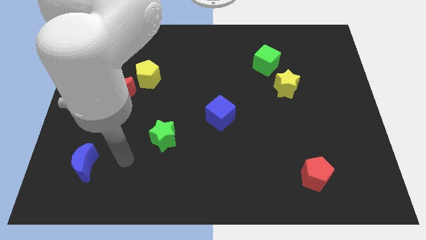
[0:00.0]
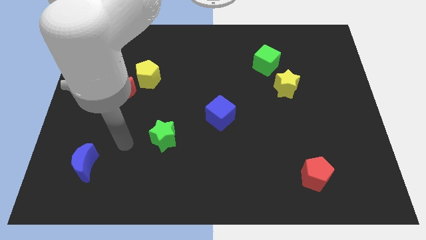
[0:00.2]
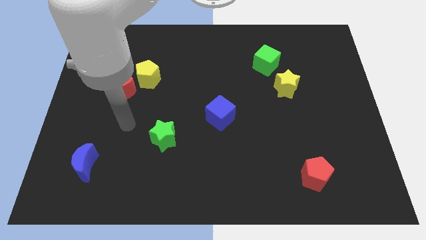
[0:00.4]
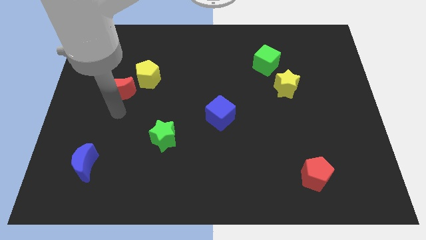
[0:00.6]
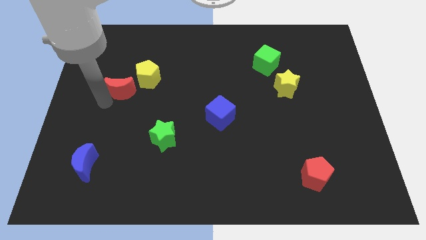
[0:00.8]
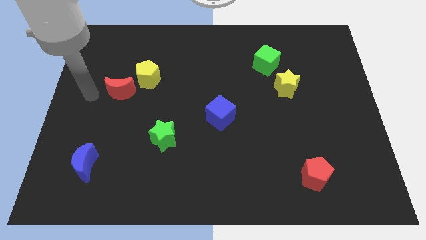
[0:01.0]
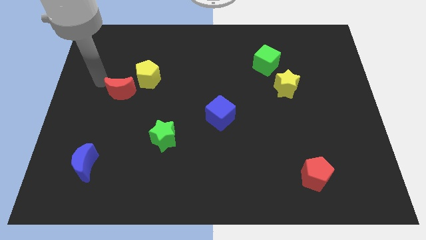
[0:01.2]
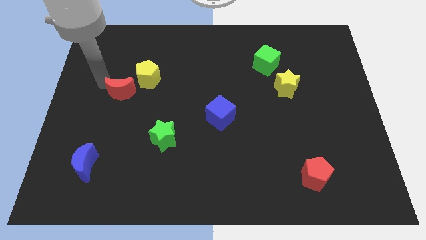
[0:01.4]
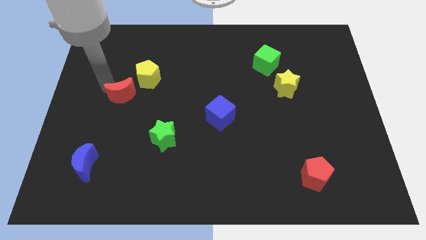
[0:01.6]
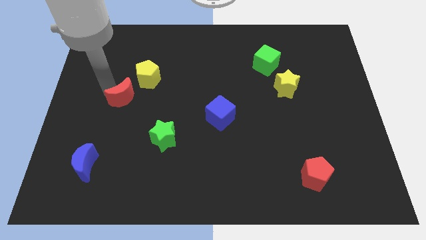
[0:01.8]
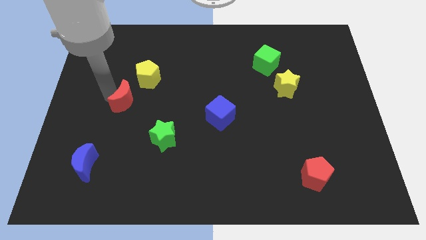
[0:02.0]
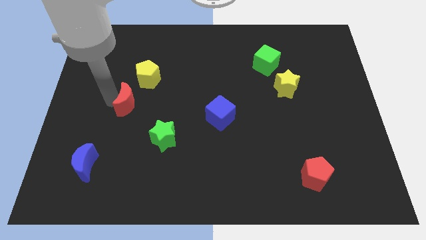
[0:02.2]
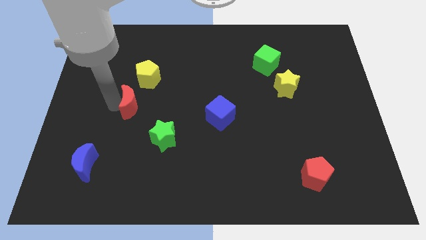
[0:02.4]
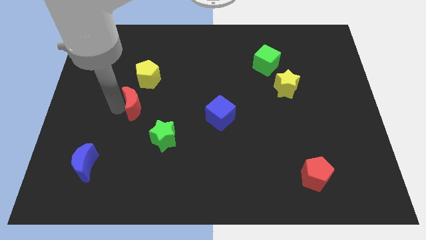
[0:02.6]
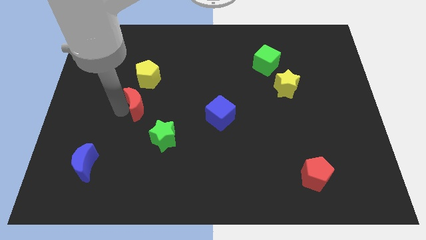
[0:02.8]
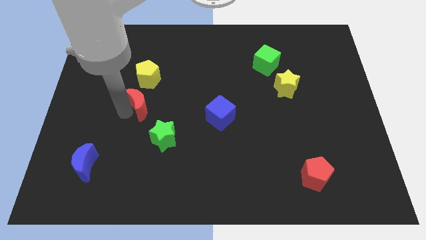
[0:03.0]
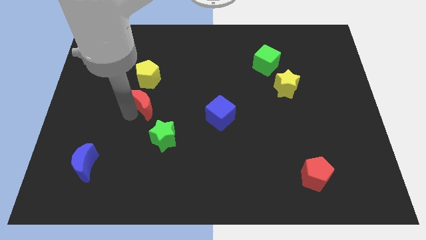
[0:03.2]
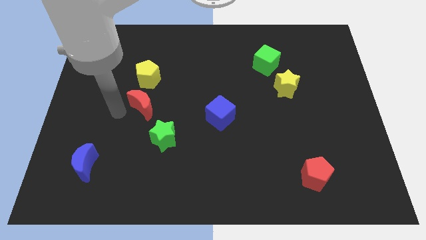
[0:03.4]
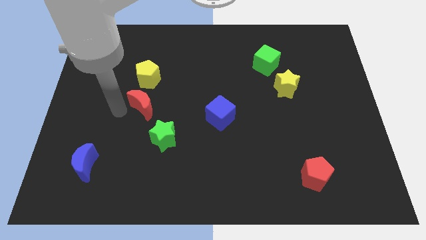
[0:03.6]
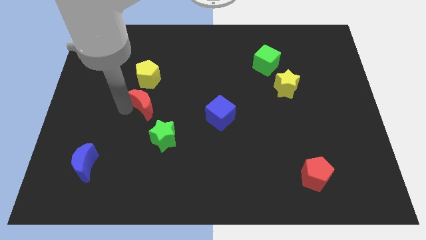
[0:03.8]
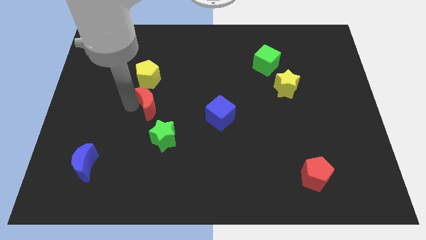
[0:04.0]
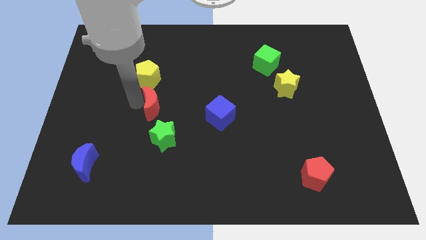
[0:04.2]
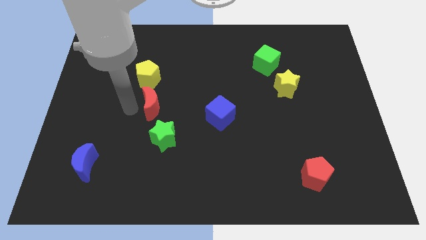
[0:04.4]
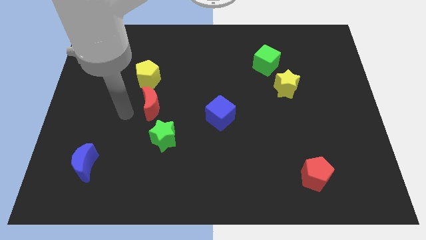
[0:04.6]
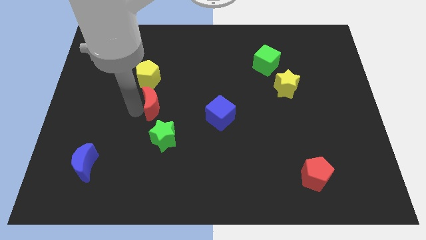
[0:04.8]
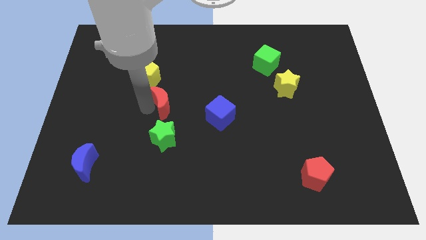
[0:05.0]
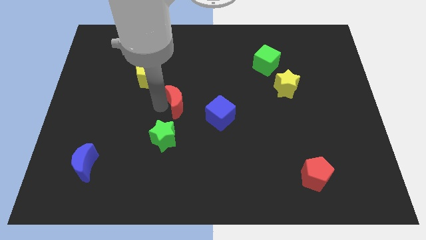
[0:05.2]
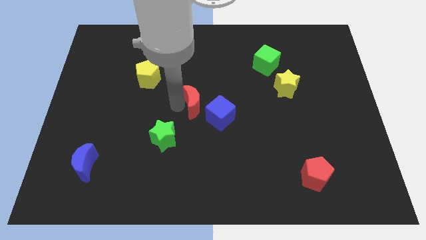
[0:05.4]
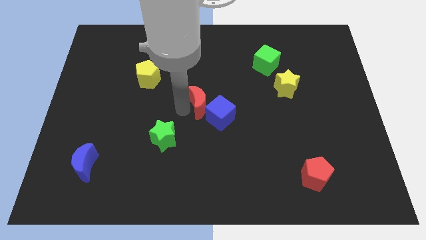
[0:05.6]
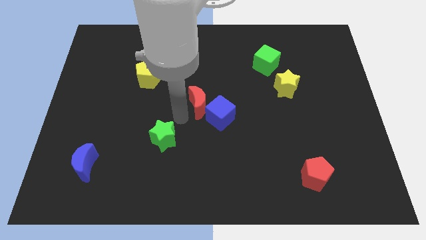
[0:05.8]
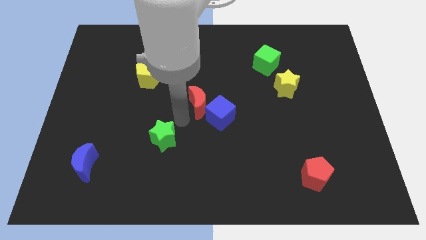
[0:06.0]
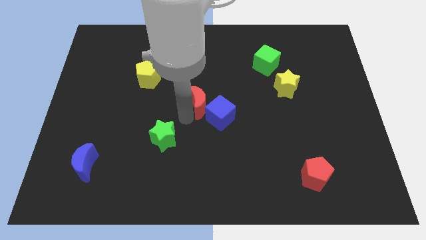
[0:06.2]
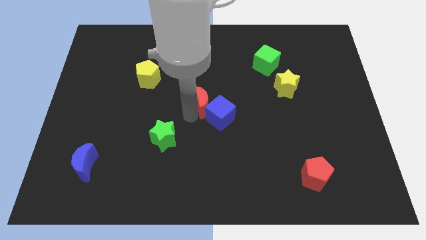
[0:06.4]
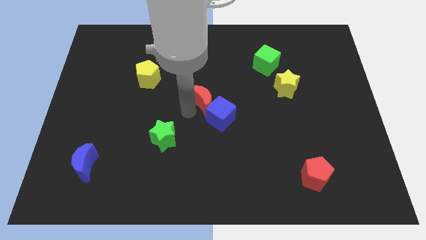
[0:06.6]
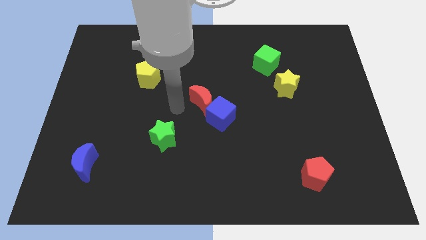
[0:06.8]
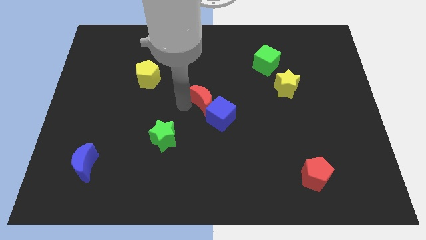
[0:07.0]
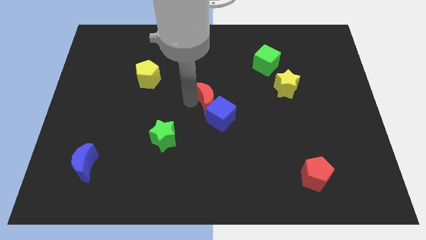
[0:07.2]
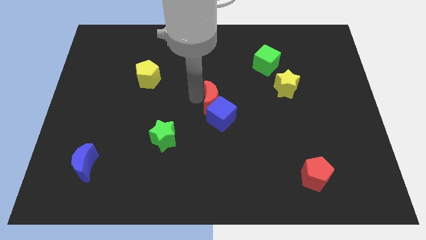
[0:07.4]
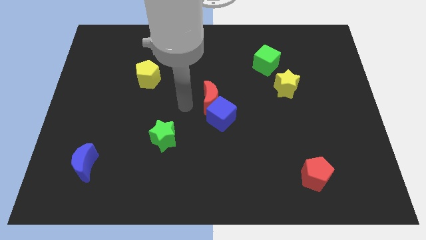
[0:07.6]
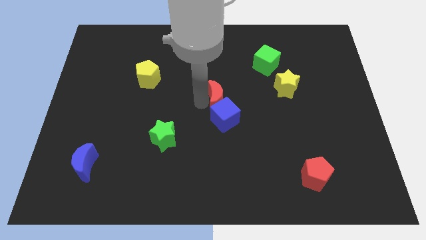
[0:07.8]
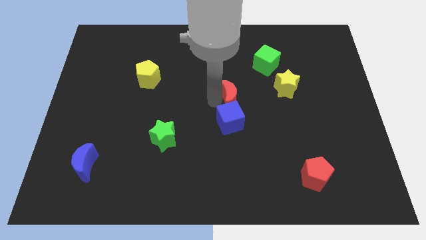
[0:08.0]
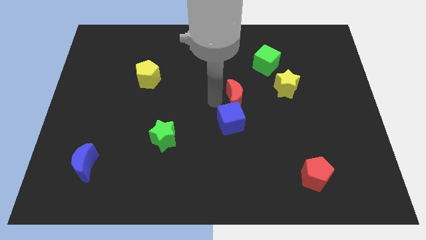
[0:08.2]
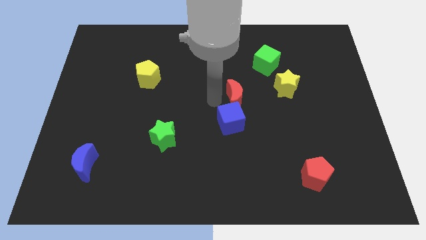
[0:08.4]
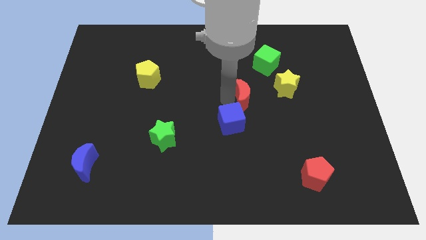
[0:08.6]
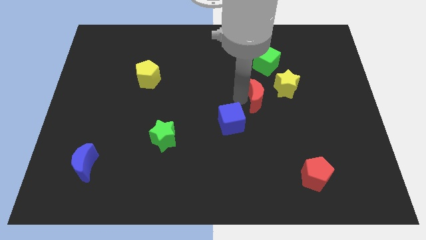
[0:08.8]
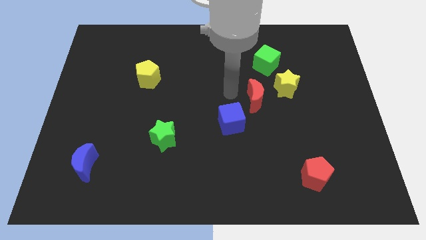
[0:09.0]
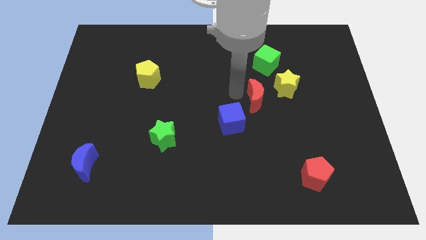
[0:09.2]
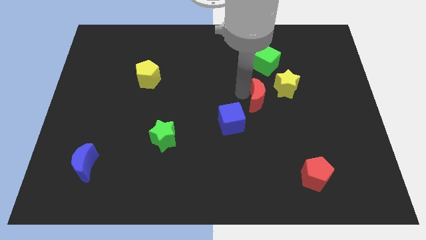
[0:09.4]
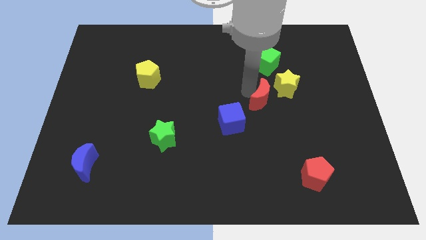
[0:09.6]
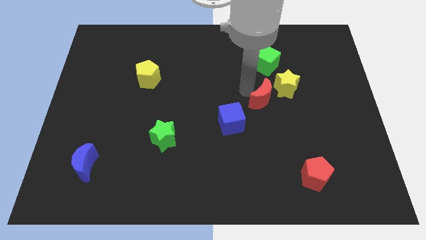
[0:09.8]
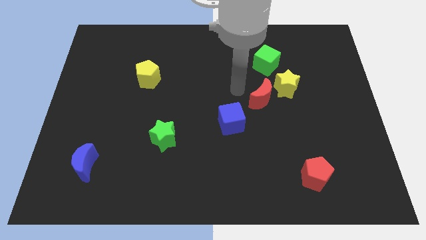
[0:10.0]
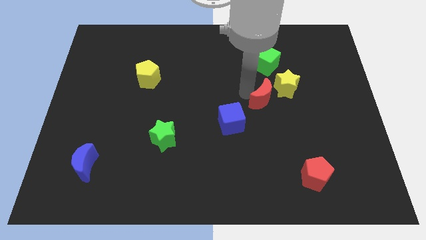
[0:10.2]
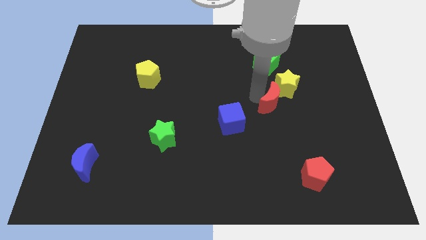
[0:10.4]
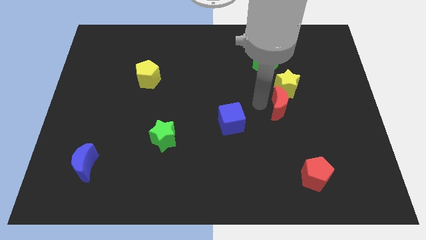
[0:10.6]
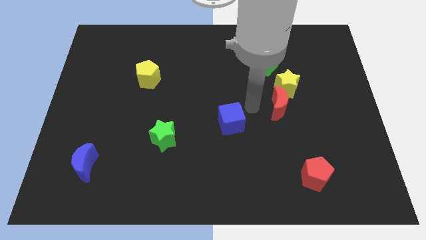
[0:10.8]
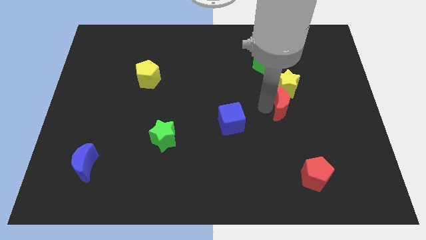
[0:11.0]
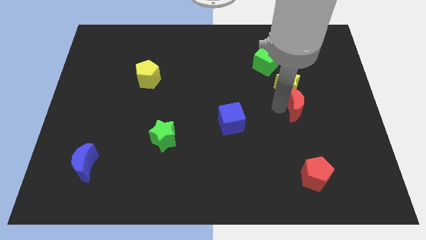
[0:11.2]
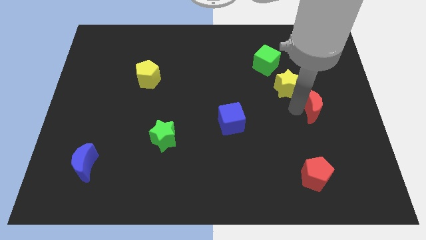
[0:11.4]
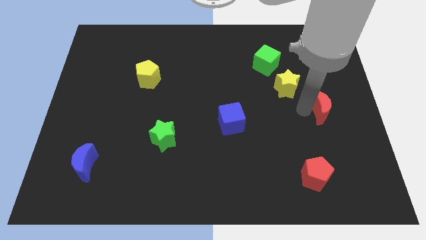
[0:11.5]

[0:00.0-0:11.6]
move the red moon to the right side of the board

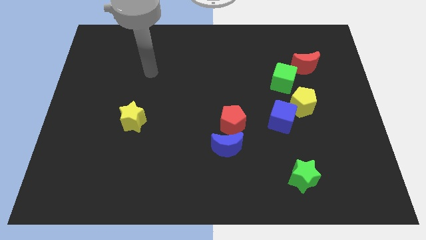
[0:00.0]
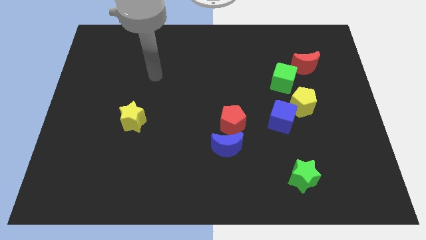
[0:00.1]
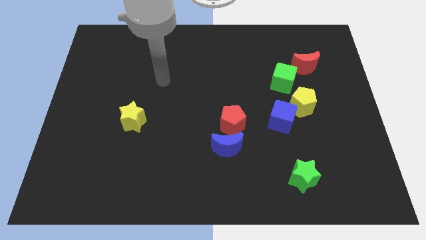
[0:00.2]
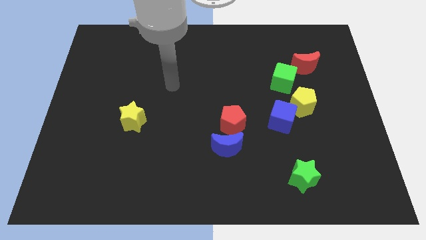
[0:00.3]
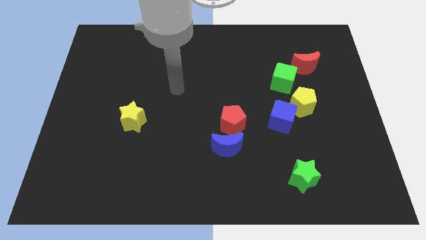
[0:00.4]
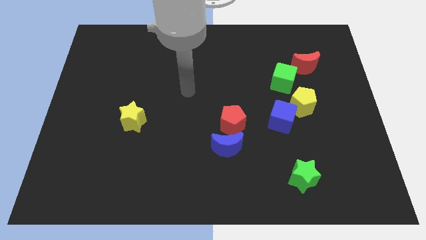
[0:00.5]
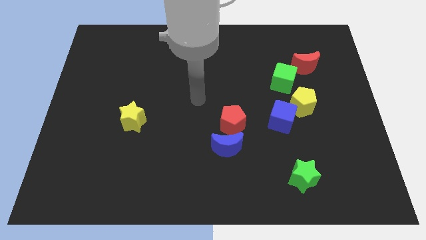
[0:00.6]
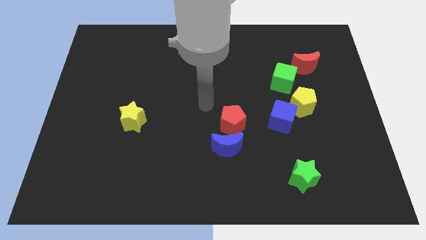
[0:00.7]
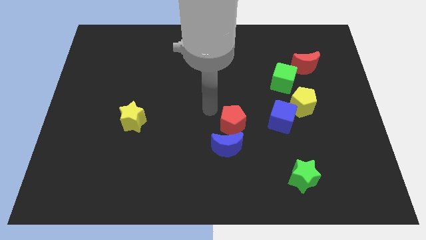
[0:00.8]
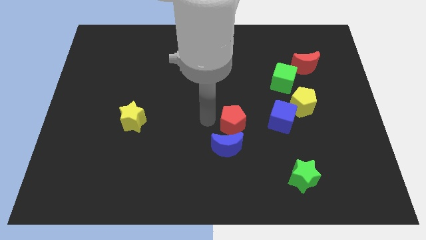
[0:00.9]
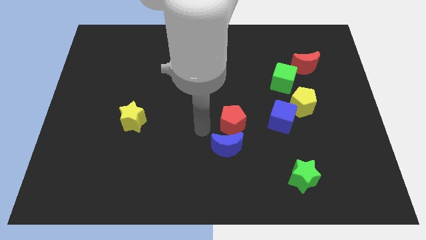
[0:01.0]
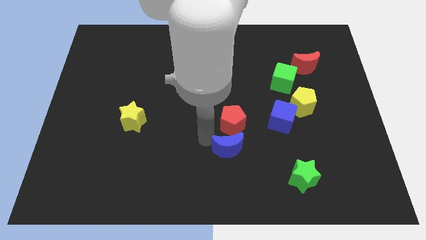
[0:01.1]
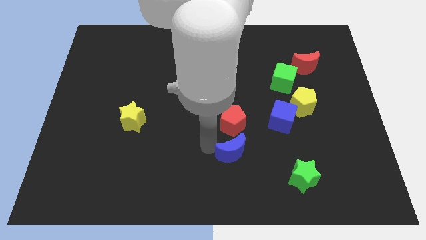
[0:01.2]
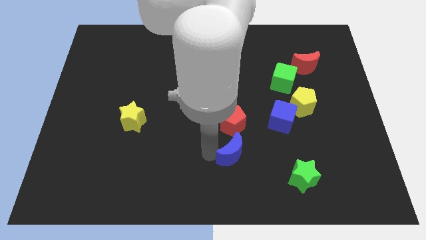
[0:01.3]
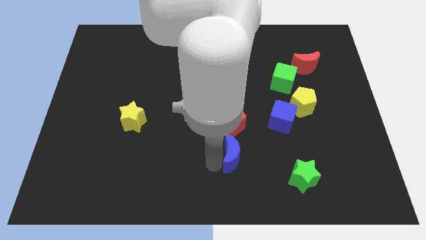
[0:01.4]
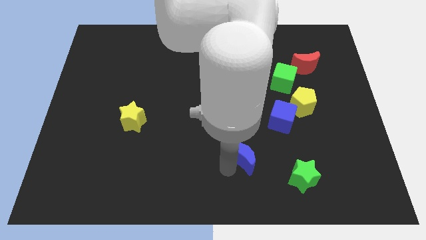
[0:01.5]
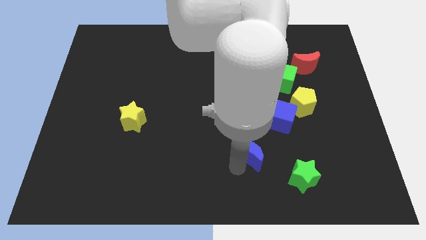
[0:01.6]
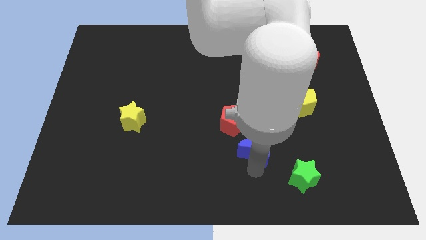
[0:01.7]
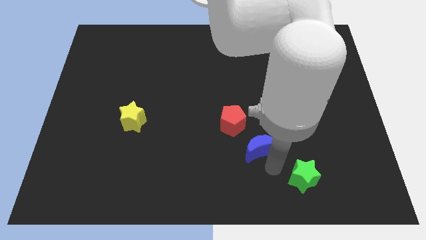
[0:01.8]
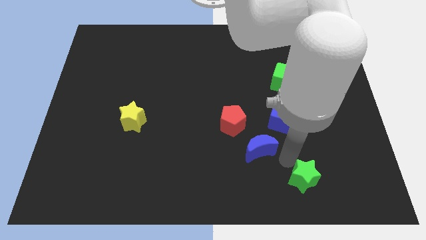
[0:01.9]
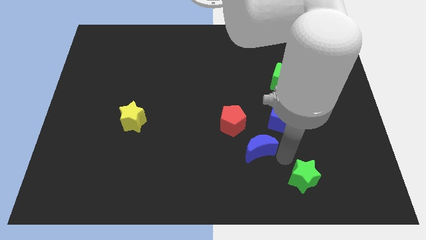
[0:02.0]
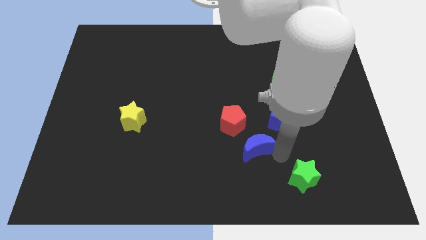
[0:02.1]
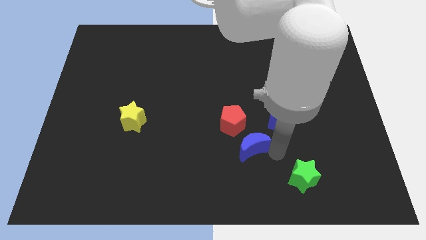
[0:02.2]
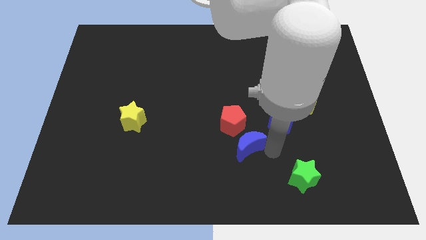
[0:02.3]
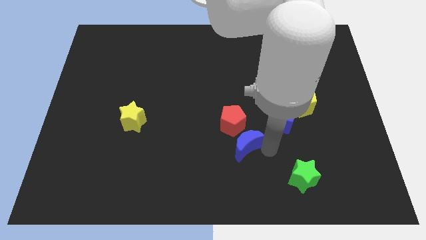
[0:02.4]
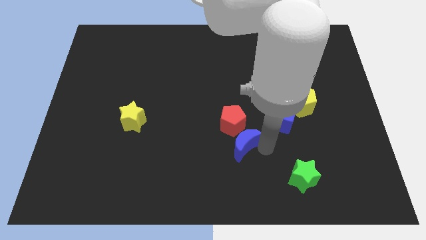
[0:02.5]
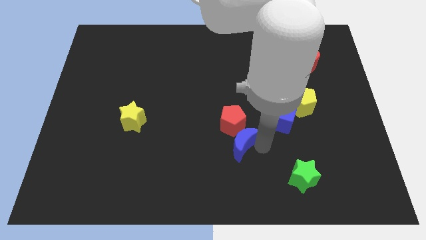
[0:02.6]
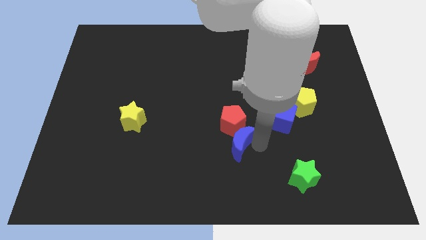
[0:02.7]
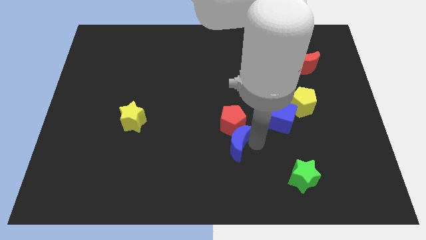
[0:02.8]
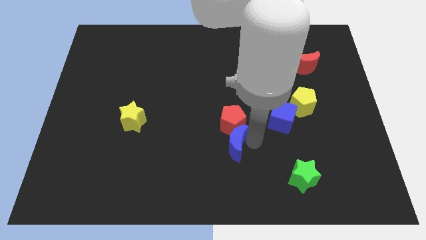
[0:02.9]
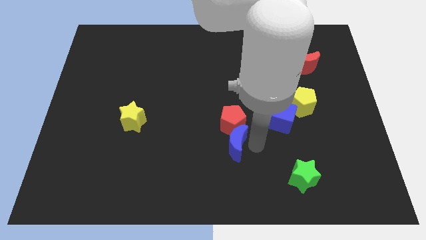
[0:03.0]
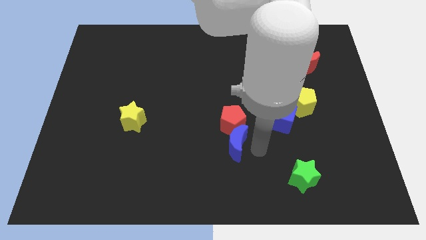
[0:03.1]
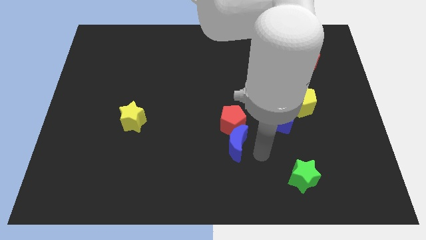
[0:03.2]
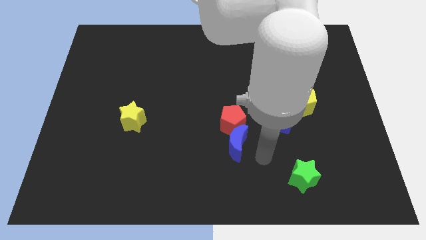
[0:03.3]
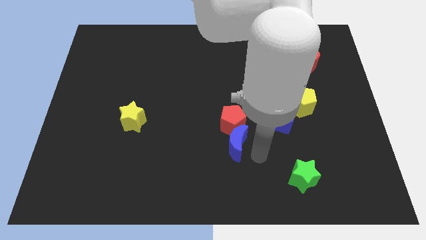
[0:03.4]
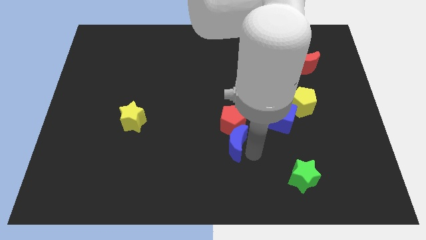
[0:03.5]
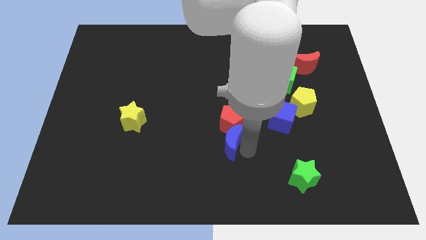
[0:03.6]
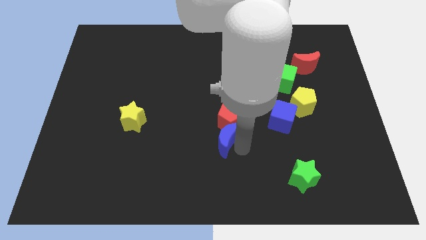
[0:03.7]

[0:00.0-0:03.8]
put the blue moon to the middle of the board
